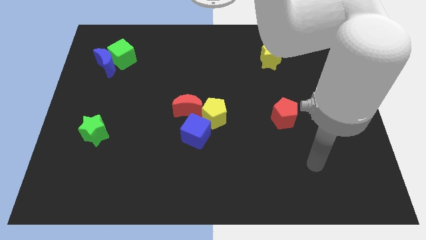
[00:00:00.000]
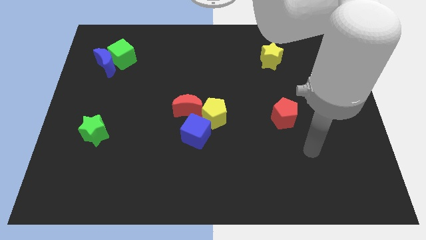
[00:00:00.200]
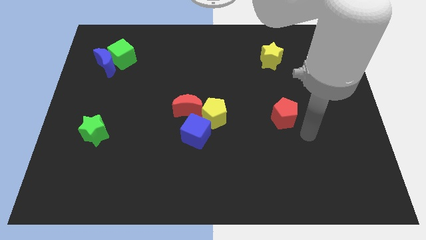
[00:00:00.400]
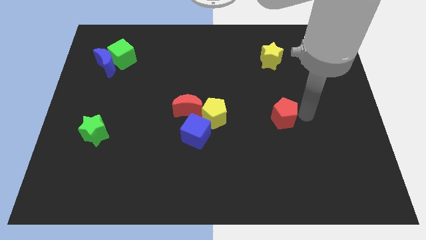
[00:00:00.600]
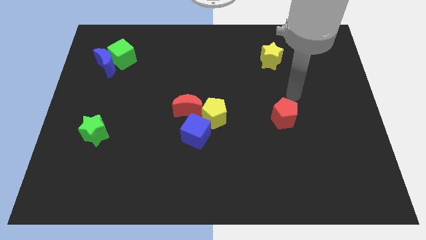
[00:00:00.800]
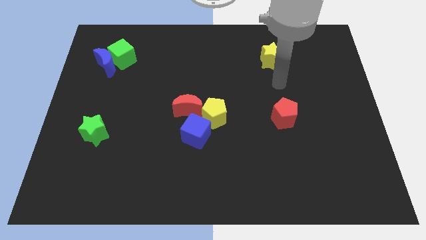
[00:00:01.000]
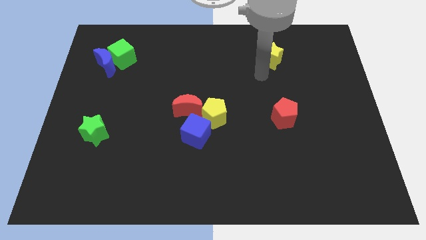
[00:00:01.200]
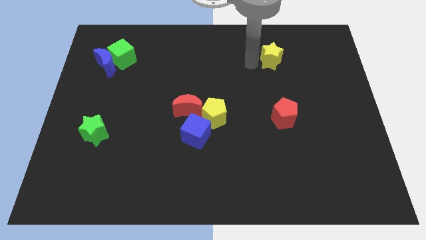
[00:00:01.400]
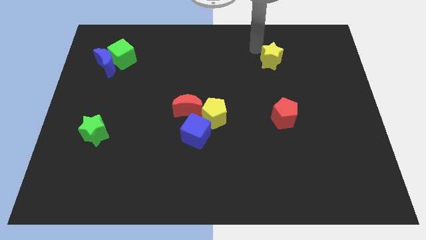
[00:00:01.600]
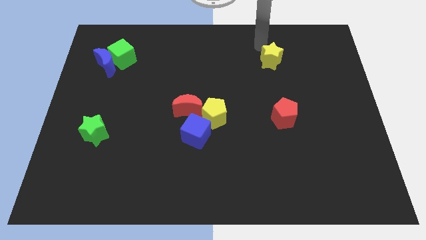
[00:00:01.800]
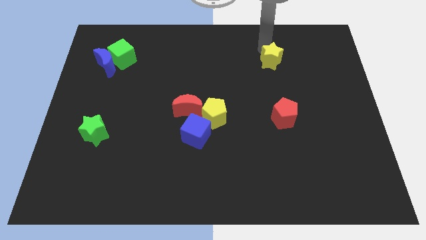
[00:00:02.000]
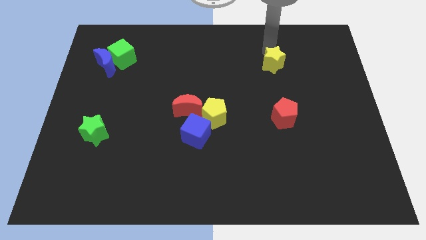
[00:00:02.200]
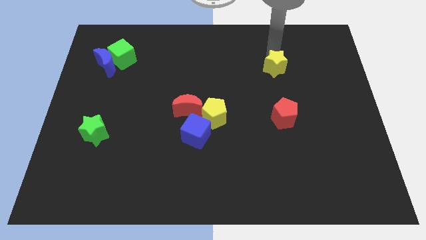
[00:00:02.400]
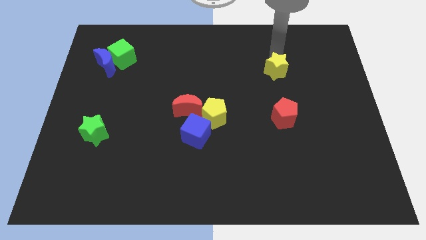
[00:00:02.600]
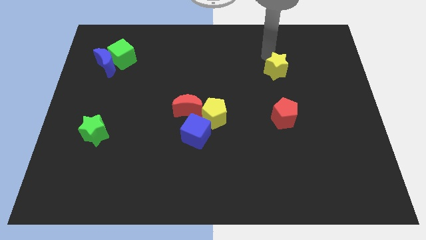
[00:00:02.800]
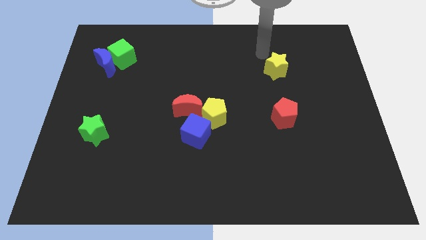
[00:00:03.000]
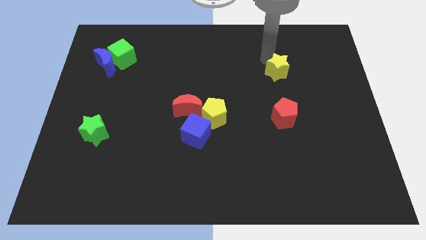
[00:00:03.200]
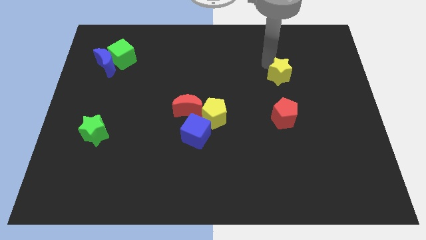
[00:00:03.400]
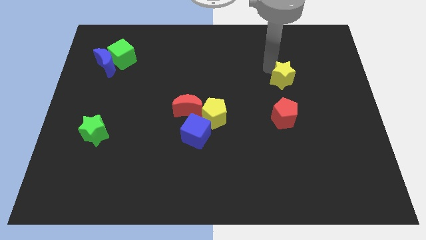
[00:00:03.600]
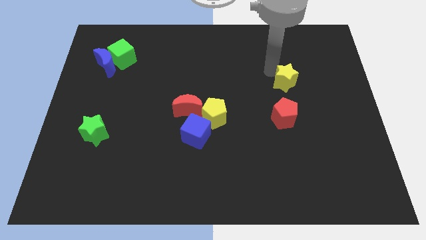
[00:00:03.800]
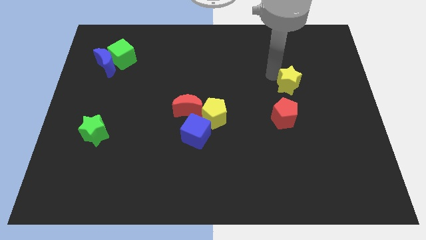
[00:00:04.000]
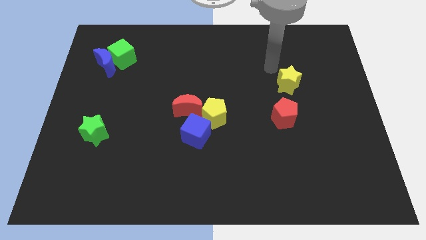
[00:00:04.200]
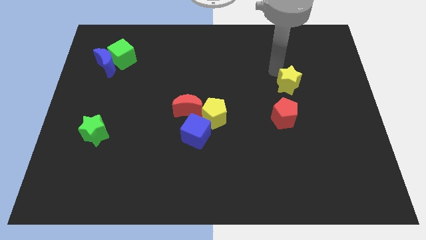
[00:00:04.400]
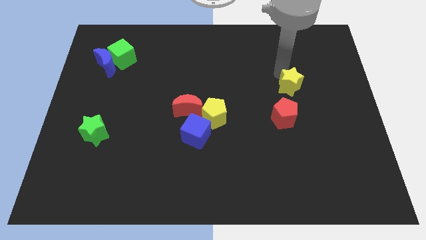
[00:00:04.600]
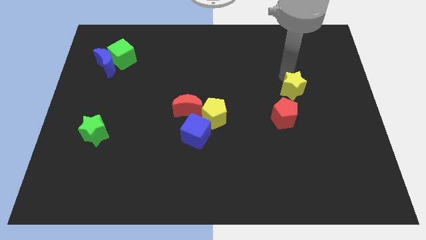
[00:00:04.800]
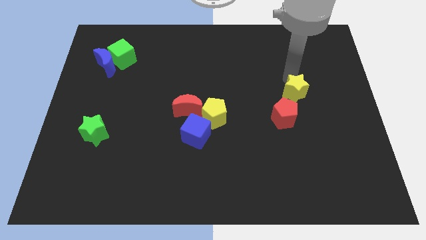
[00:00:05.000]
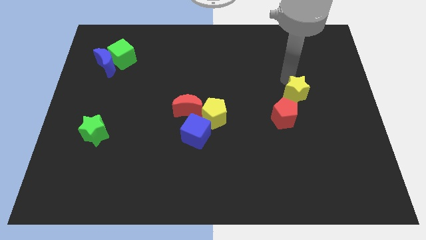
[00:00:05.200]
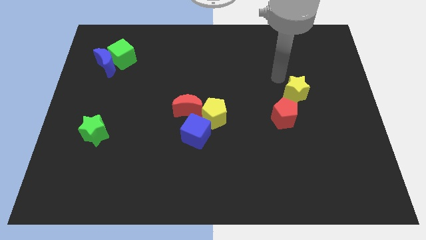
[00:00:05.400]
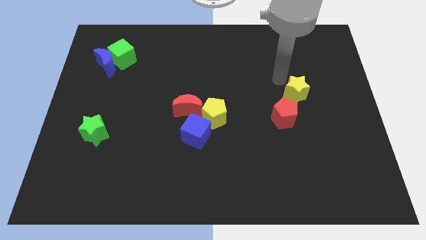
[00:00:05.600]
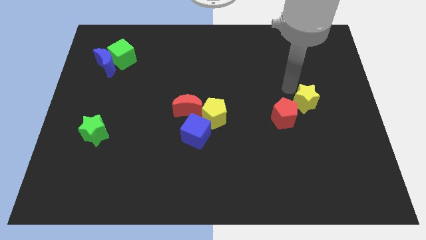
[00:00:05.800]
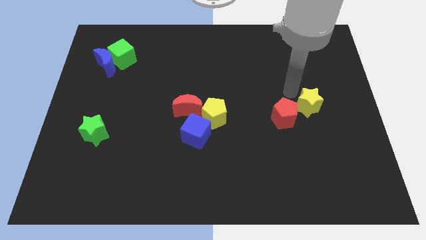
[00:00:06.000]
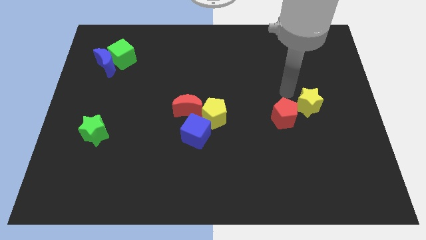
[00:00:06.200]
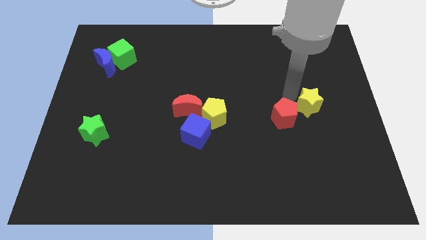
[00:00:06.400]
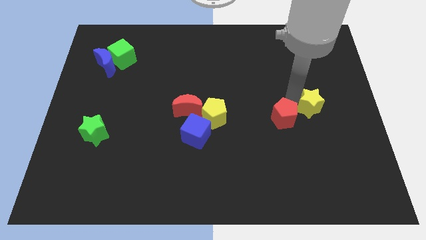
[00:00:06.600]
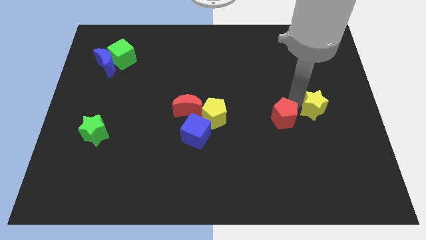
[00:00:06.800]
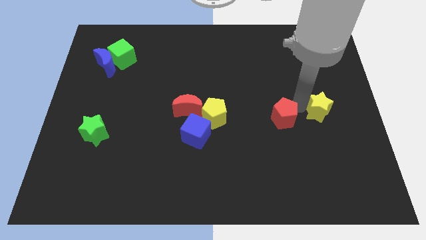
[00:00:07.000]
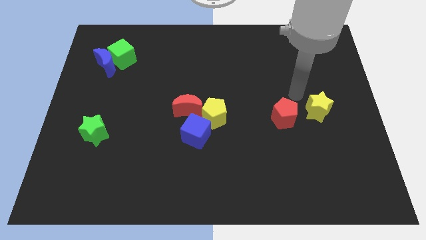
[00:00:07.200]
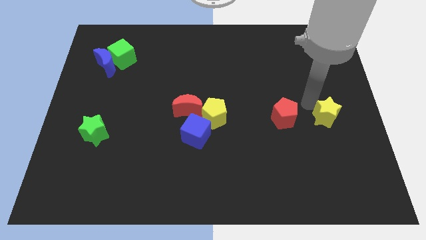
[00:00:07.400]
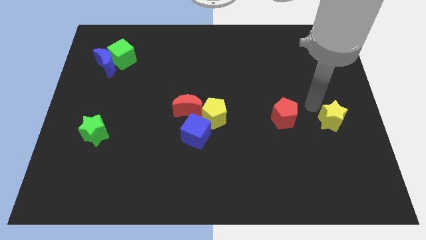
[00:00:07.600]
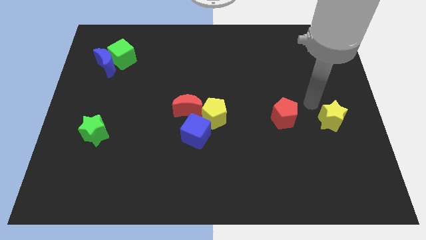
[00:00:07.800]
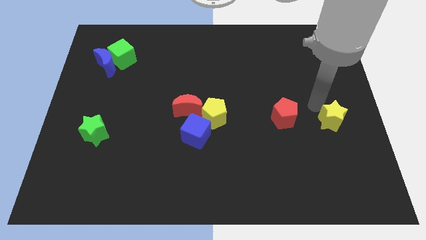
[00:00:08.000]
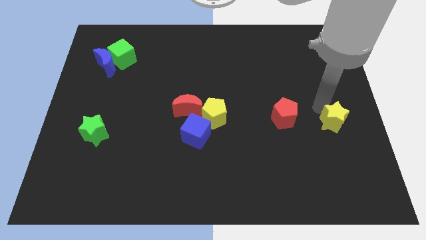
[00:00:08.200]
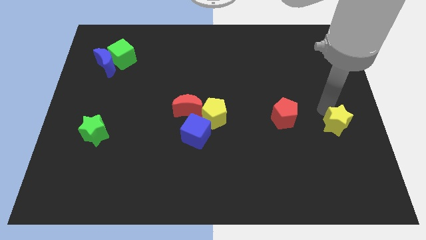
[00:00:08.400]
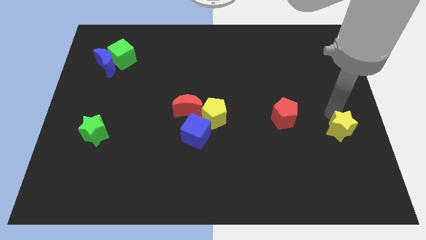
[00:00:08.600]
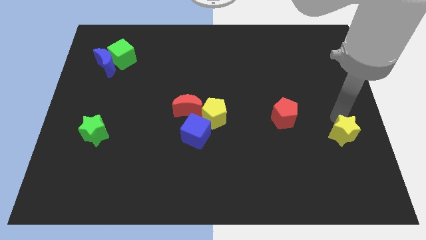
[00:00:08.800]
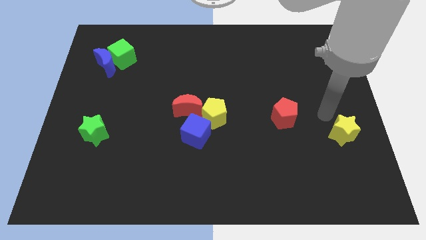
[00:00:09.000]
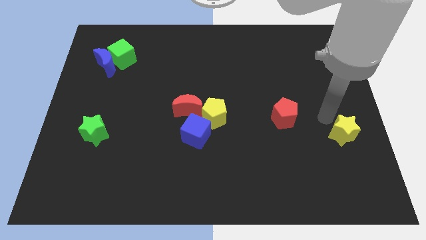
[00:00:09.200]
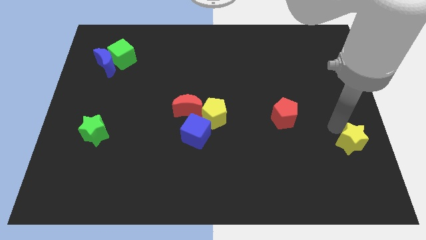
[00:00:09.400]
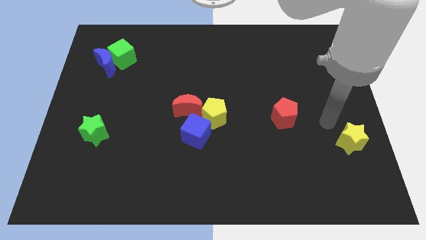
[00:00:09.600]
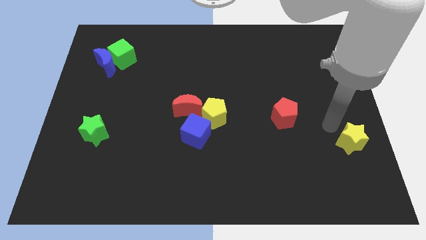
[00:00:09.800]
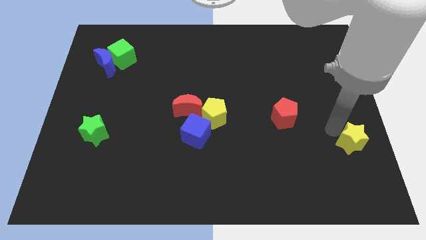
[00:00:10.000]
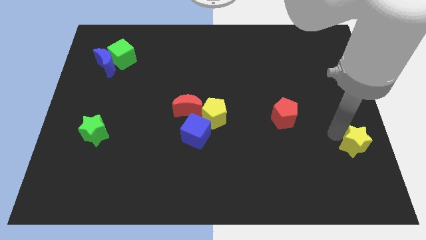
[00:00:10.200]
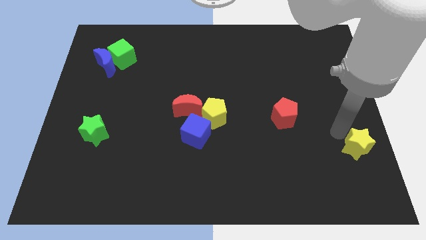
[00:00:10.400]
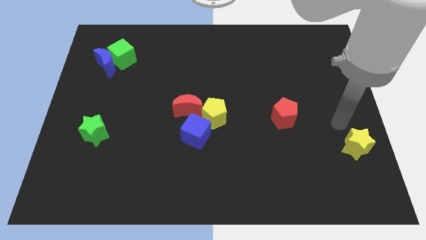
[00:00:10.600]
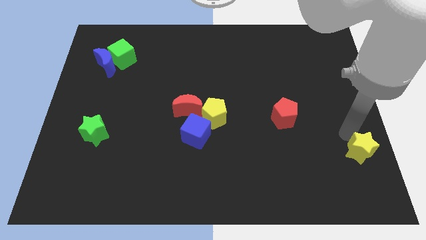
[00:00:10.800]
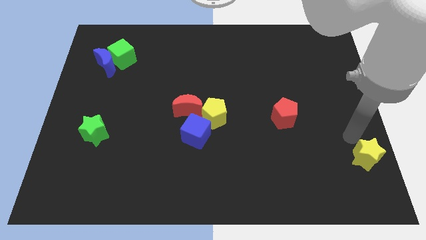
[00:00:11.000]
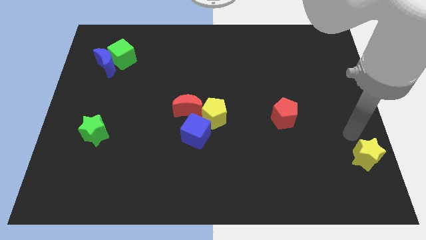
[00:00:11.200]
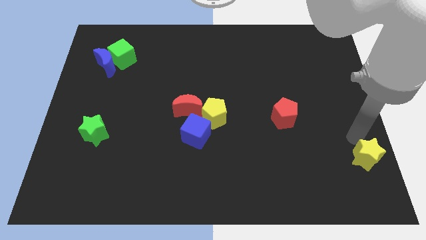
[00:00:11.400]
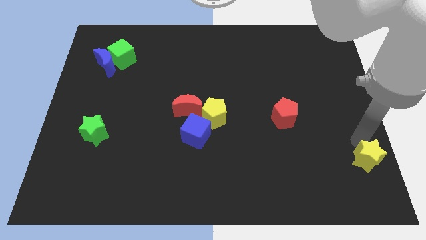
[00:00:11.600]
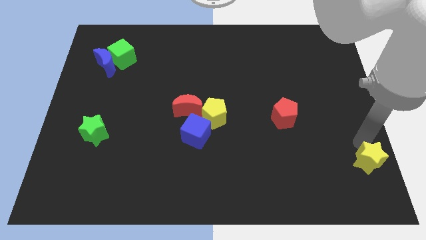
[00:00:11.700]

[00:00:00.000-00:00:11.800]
move the yellow star to the bottom right corner
